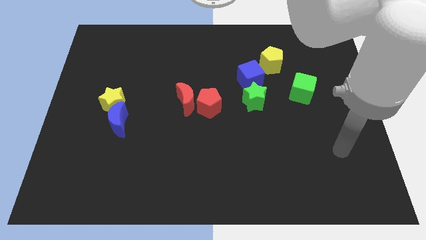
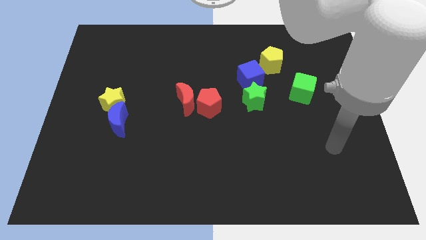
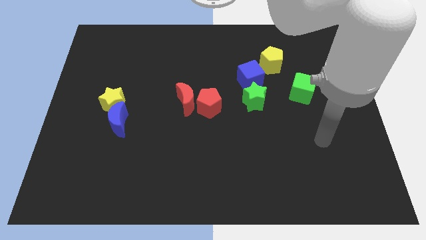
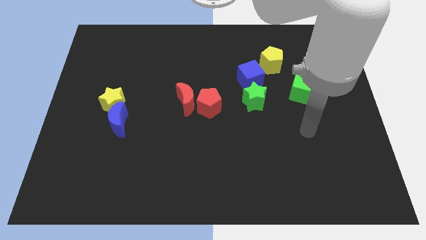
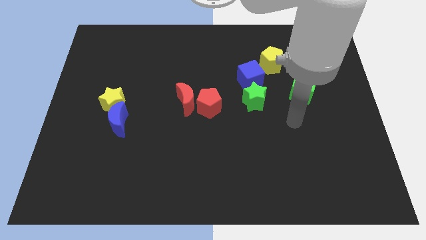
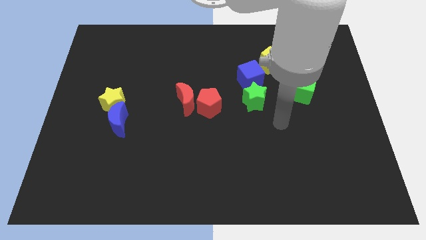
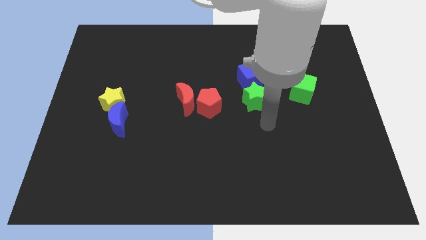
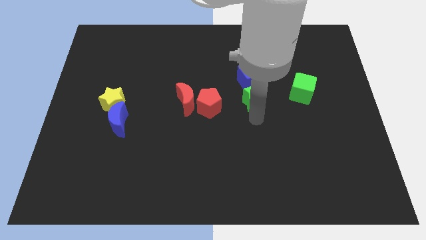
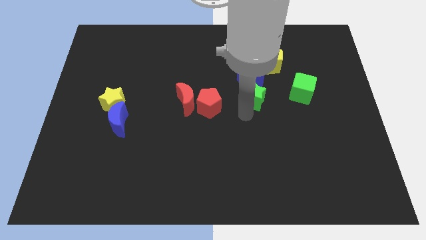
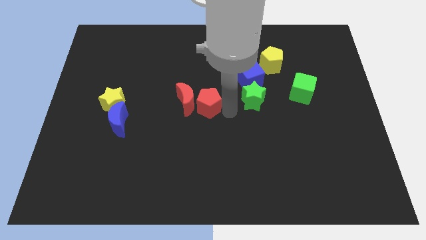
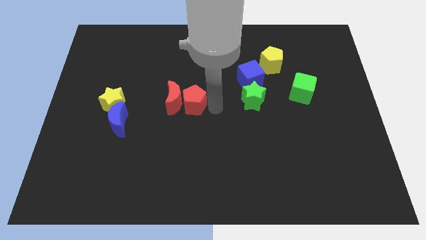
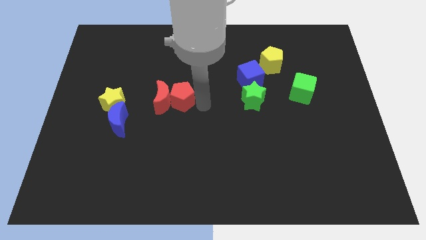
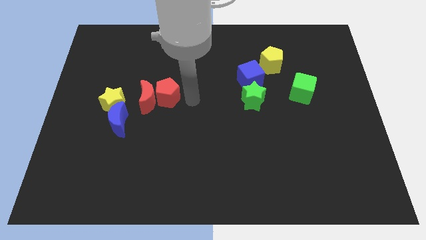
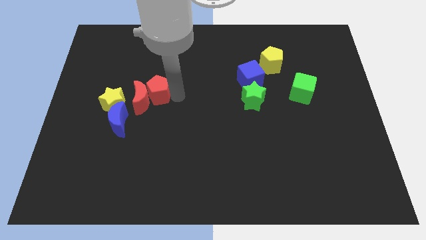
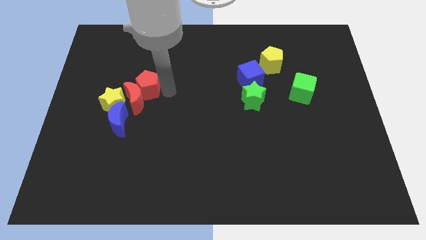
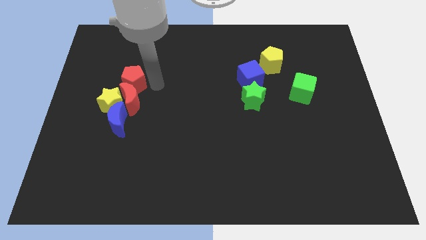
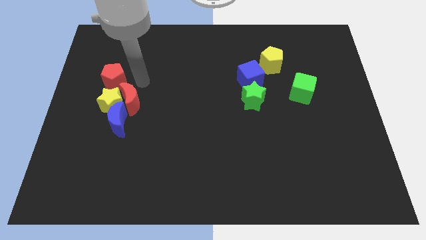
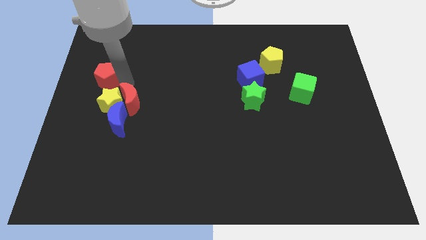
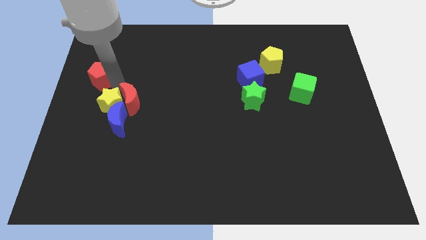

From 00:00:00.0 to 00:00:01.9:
pull the red moon apart from the red pentagon

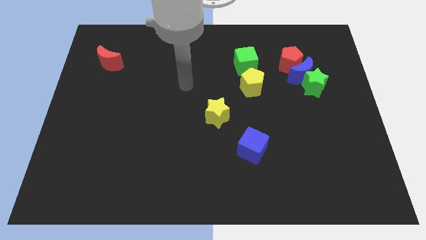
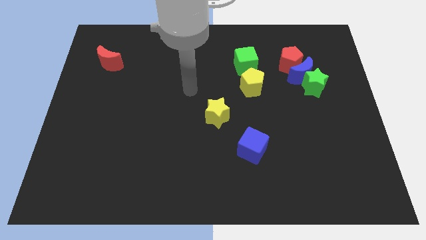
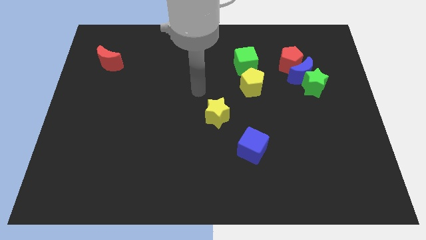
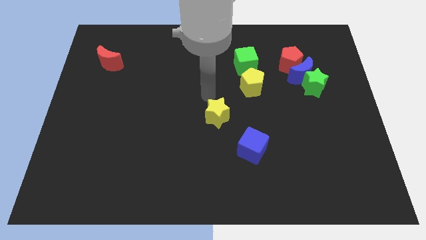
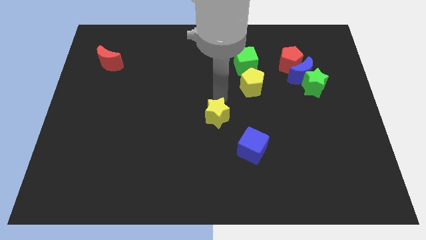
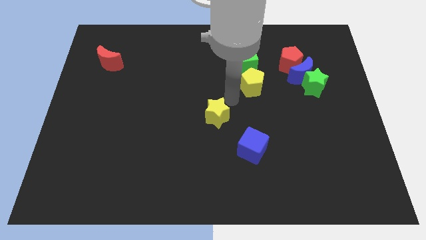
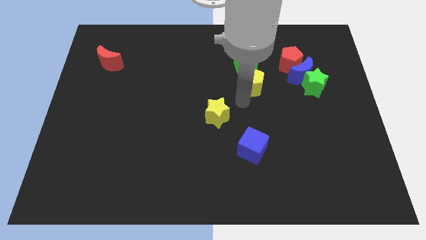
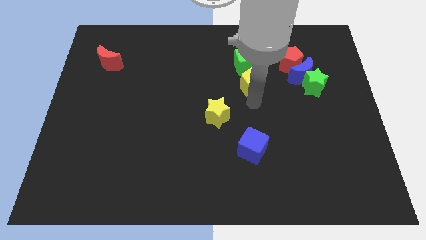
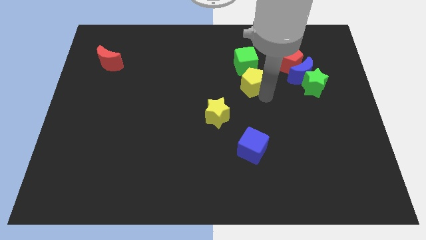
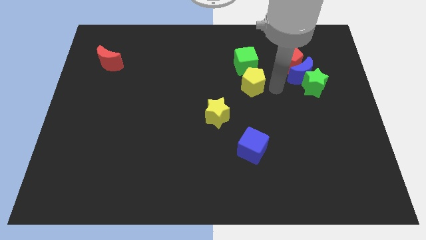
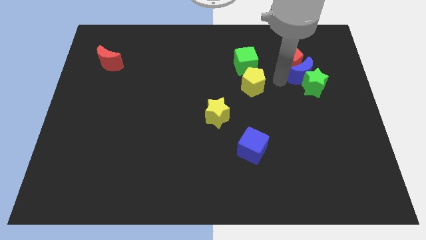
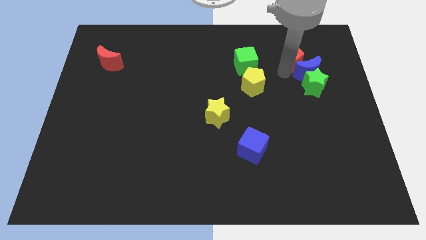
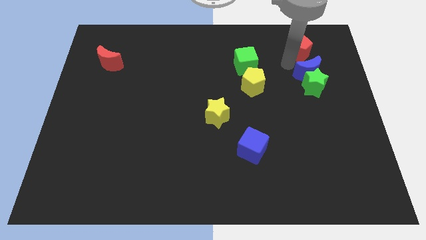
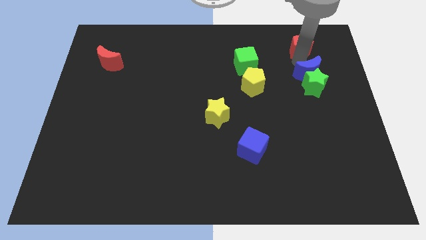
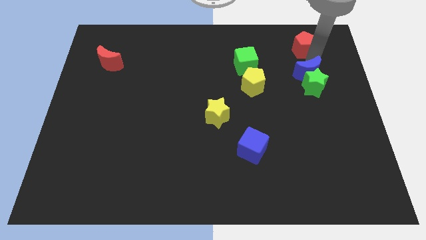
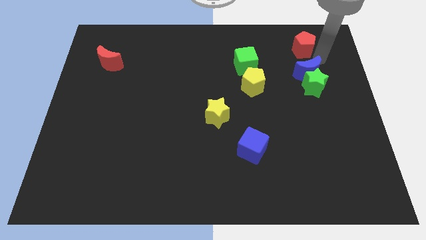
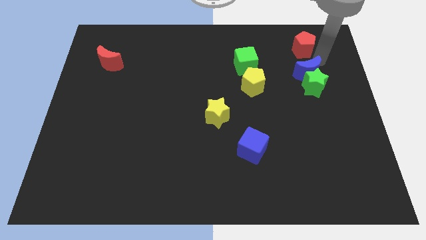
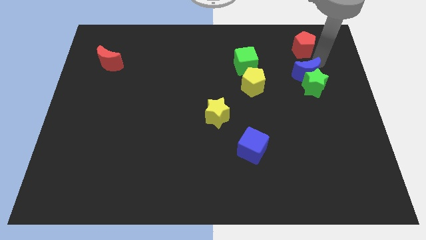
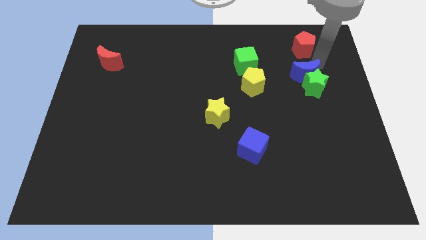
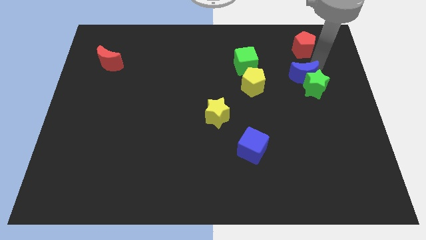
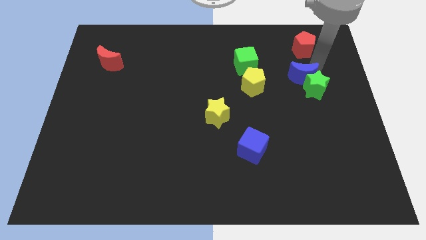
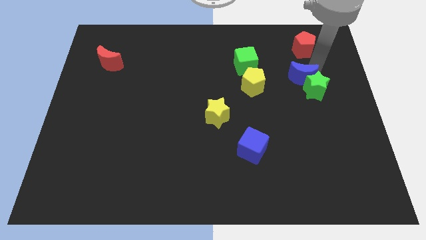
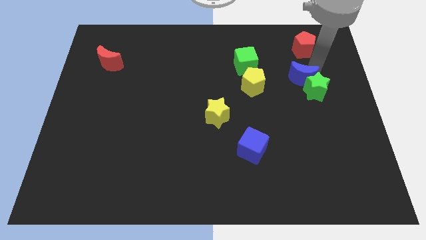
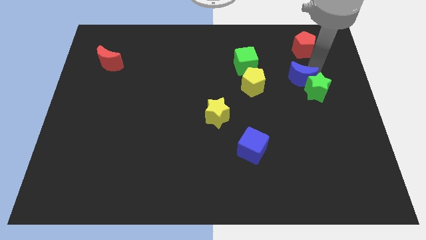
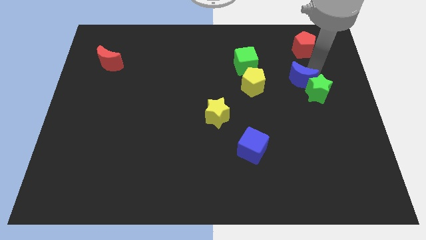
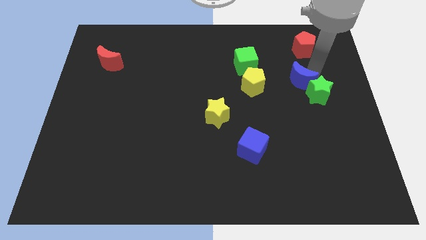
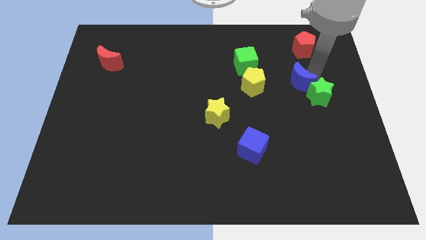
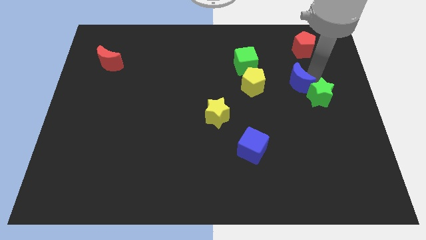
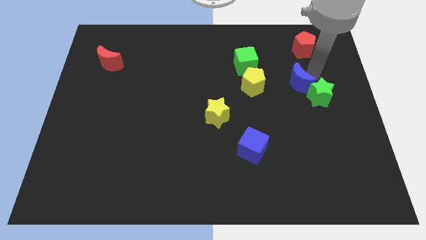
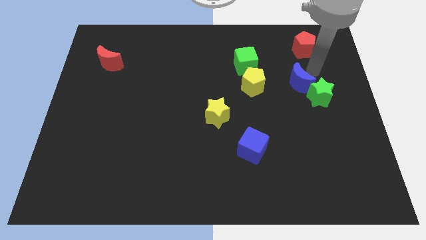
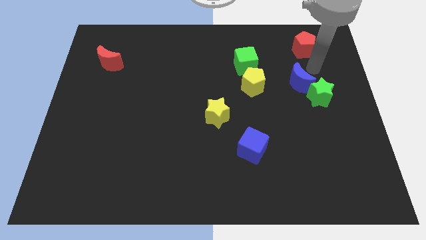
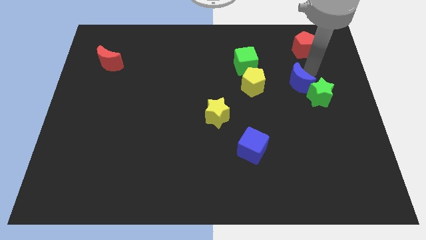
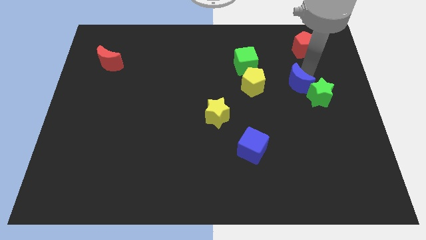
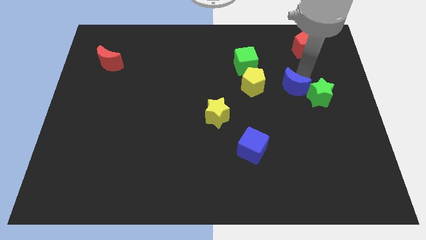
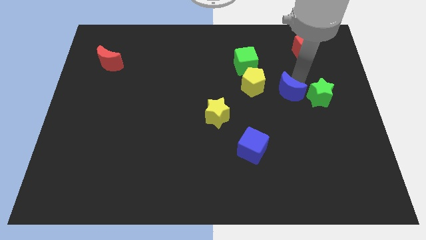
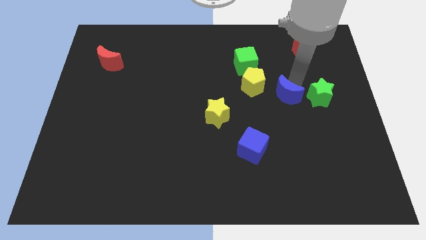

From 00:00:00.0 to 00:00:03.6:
move the blue moon away from the green star and red pentagon

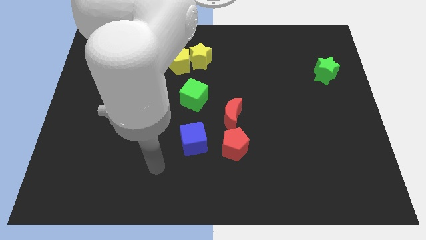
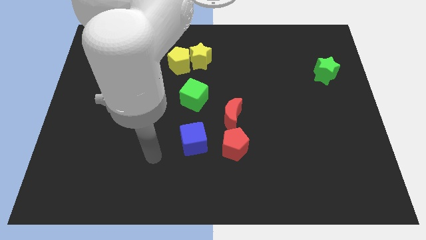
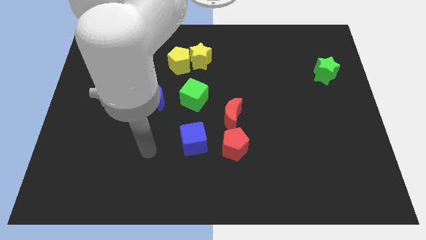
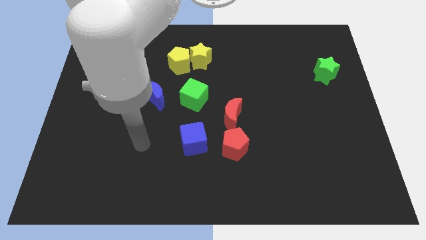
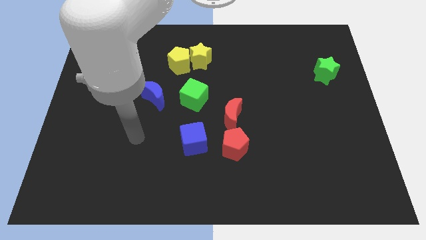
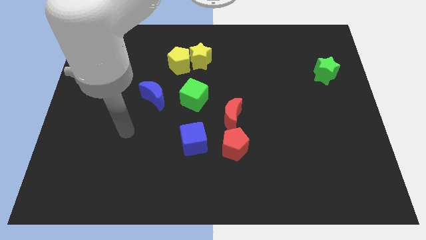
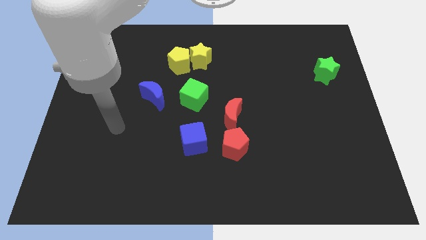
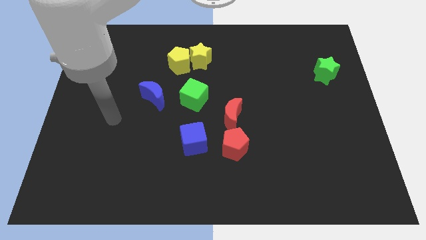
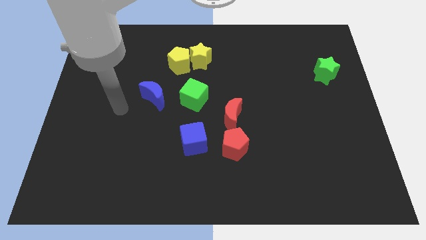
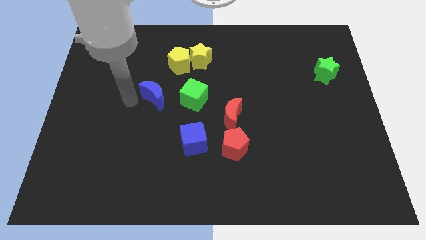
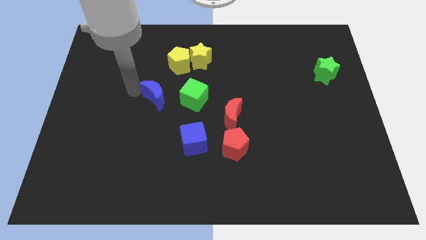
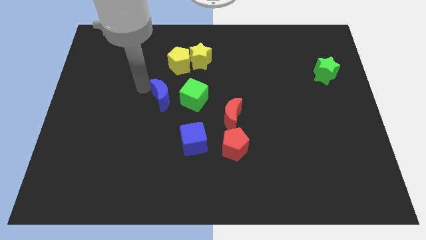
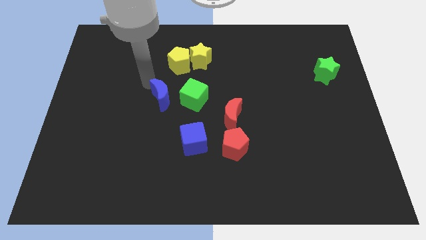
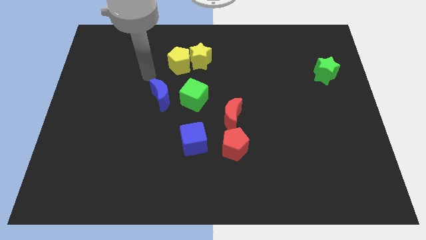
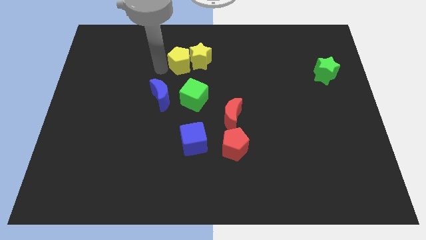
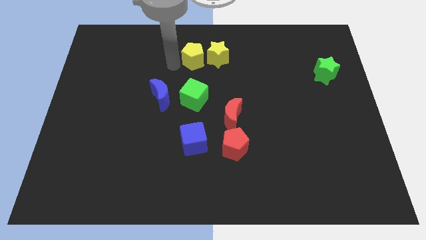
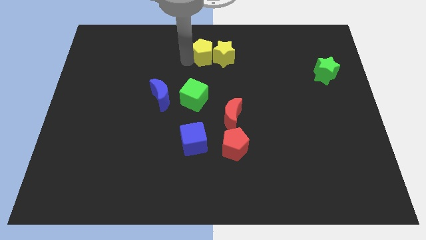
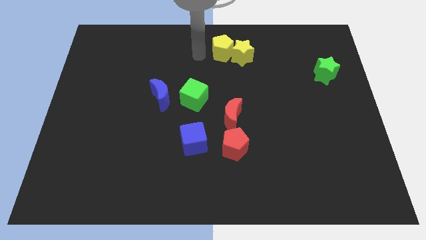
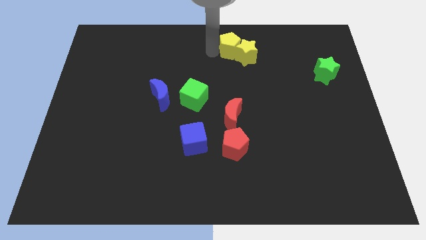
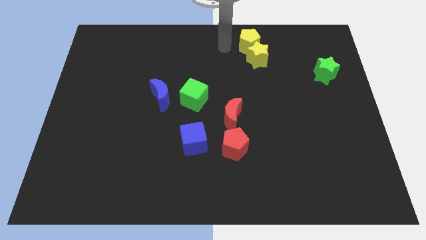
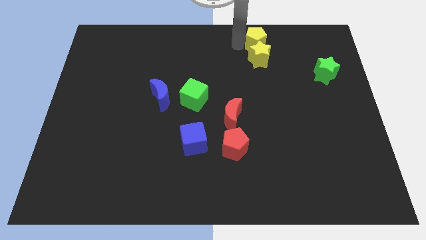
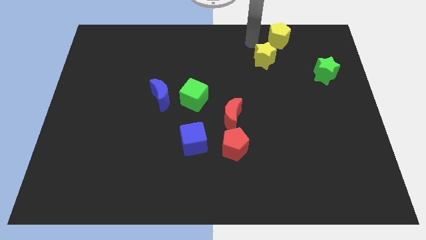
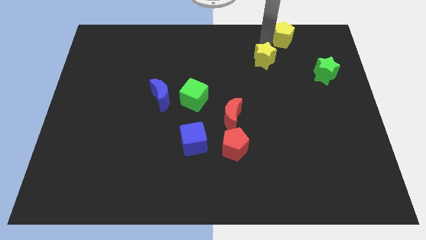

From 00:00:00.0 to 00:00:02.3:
separate the yellow star from the yellow pentagon

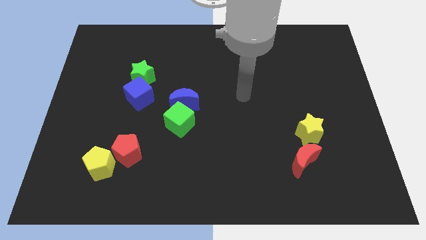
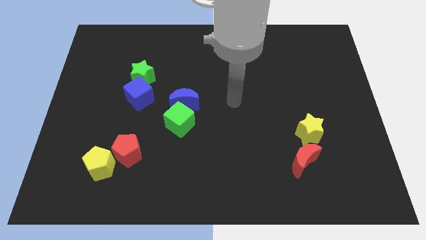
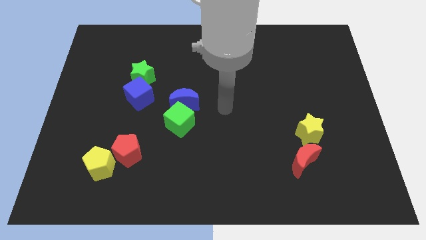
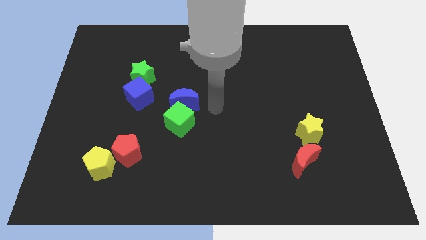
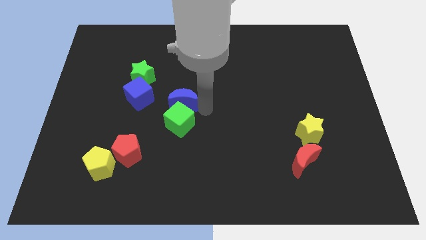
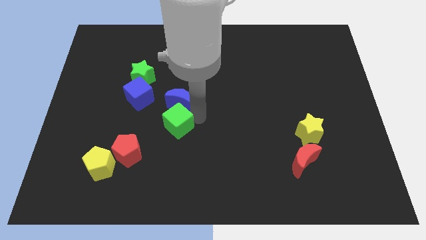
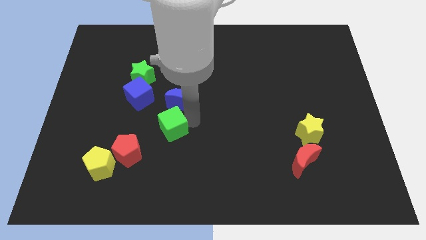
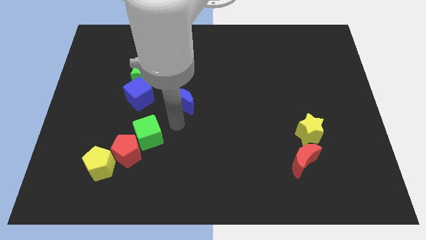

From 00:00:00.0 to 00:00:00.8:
pull the blue moon apart from the green cube

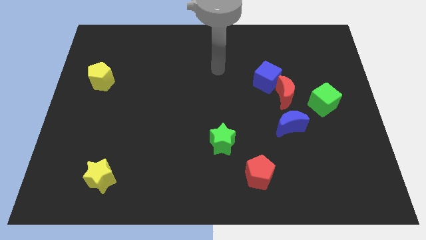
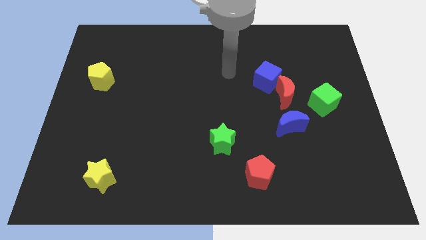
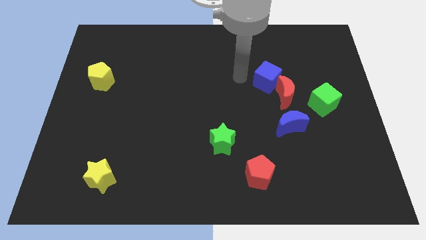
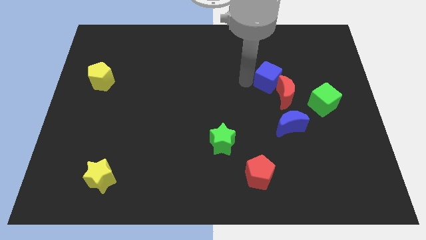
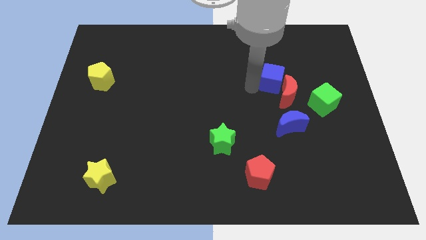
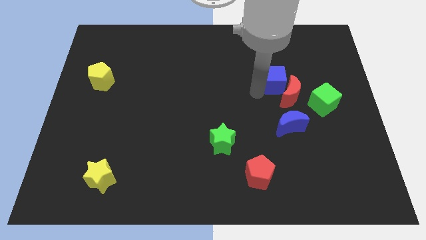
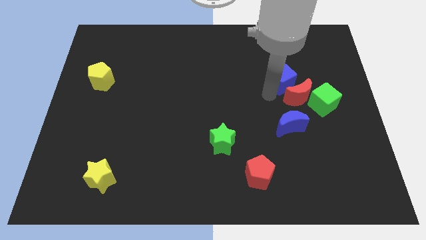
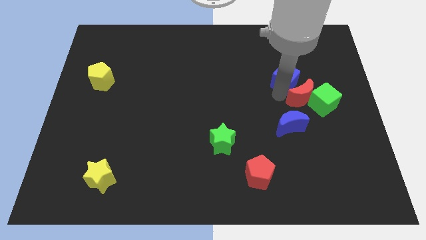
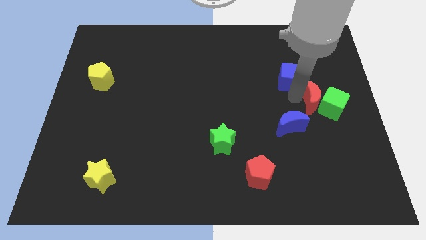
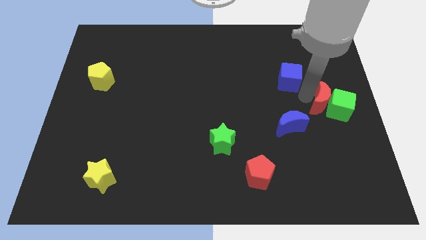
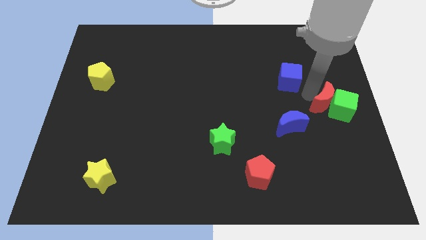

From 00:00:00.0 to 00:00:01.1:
pull the blue cube apart from the red moon
